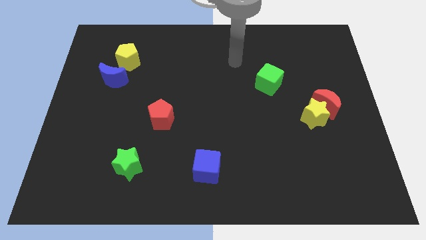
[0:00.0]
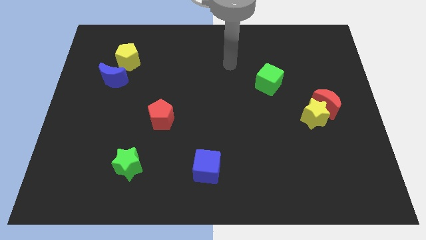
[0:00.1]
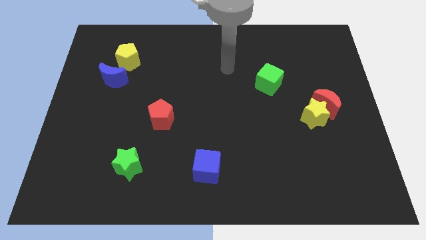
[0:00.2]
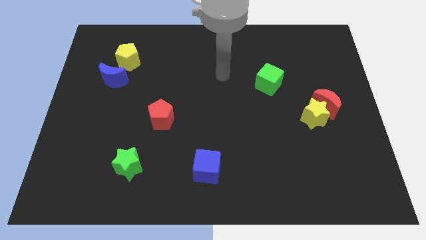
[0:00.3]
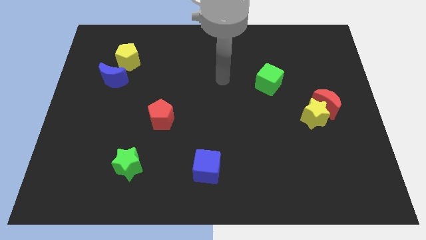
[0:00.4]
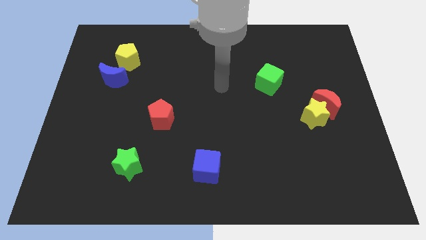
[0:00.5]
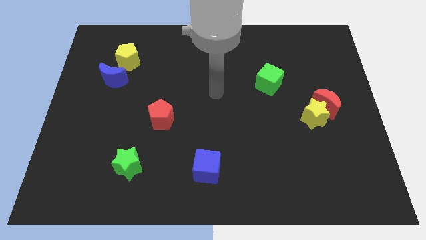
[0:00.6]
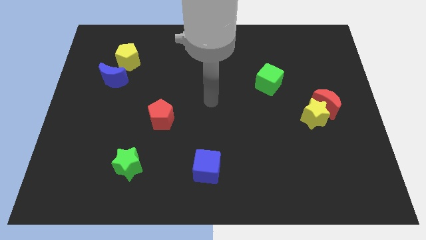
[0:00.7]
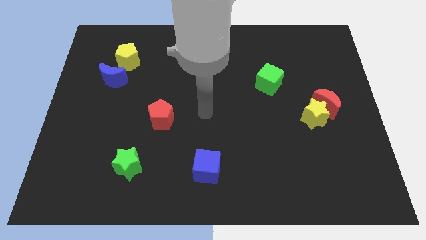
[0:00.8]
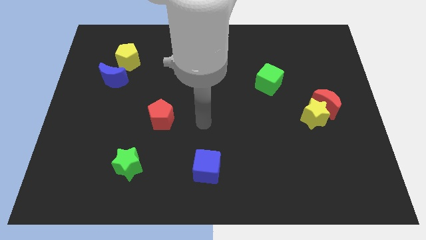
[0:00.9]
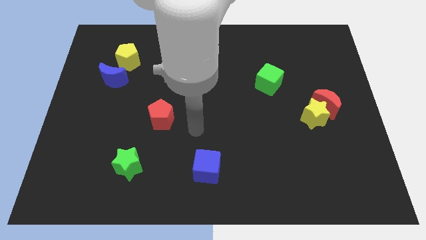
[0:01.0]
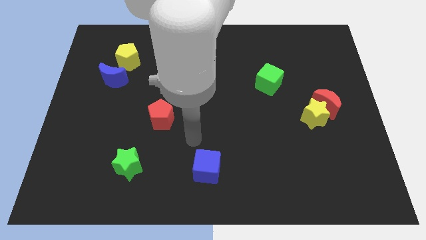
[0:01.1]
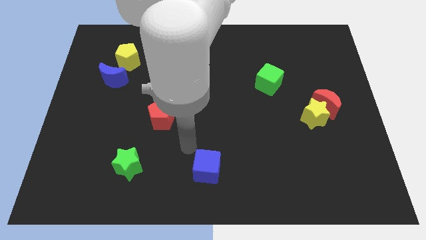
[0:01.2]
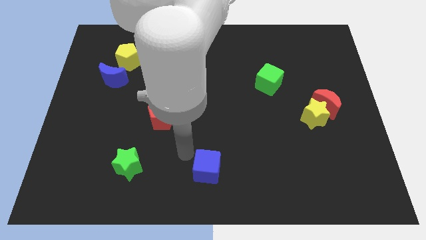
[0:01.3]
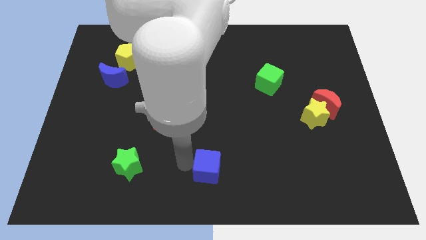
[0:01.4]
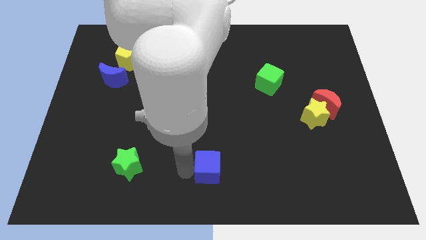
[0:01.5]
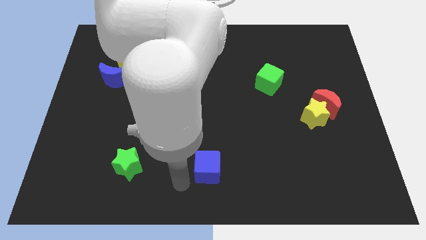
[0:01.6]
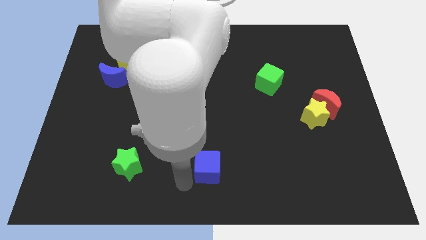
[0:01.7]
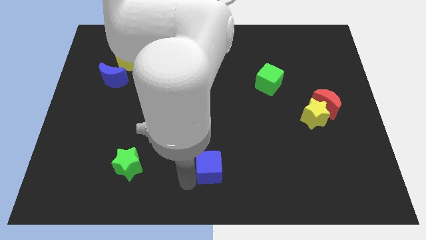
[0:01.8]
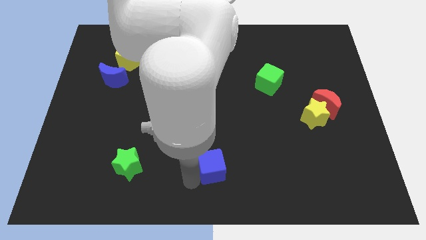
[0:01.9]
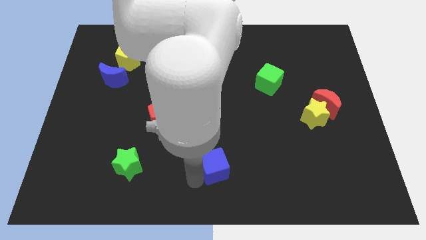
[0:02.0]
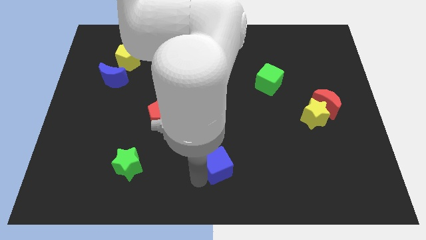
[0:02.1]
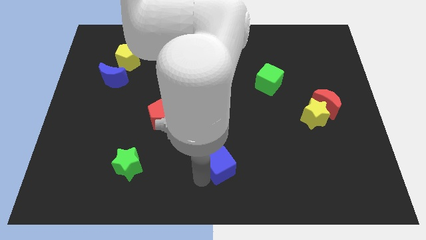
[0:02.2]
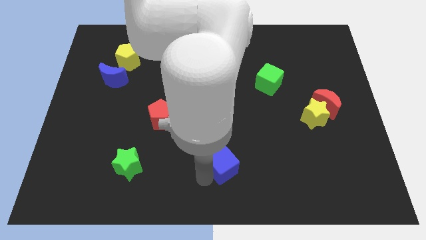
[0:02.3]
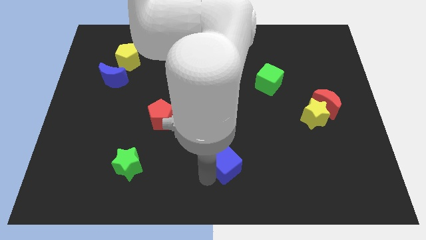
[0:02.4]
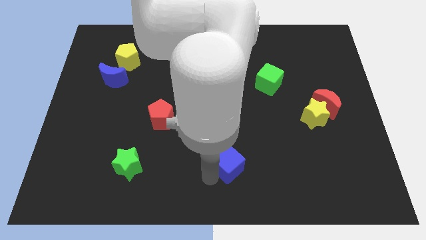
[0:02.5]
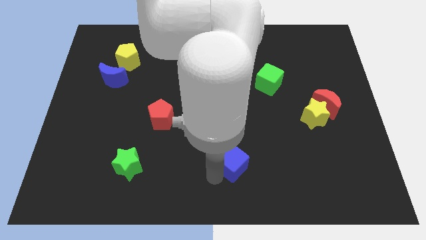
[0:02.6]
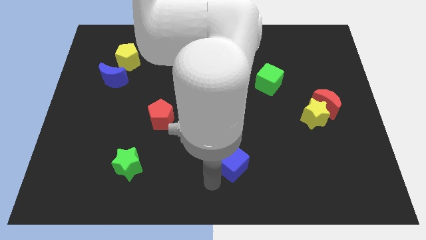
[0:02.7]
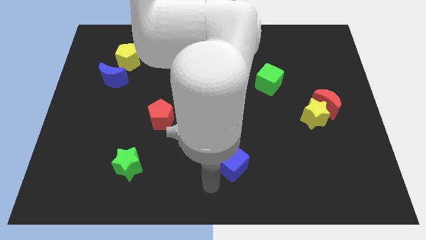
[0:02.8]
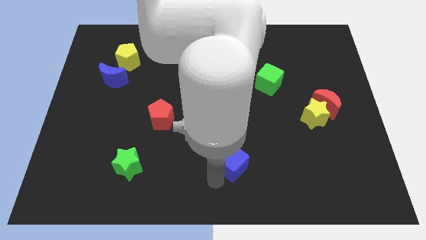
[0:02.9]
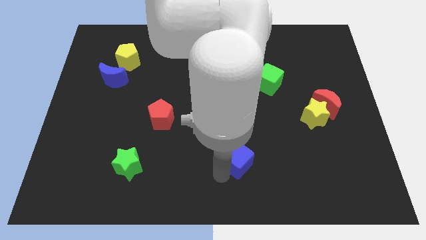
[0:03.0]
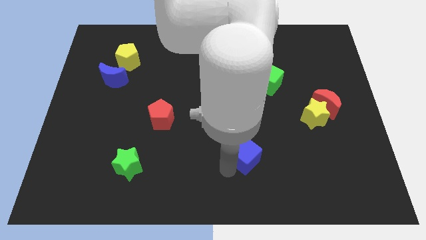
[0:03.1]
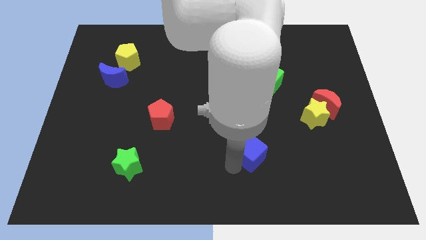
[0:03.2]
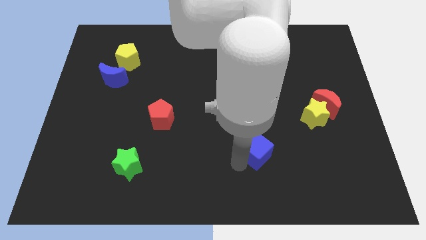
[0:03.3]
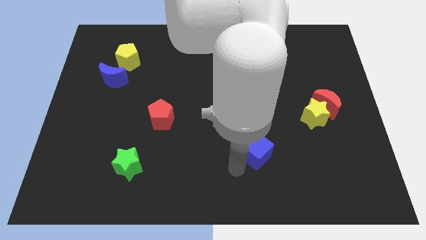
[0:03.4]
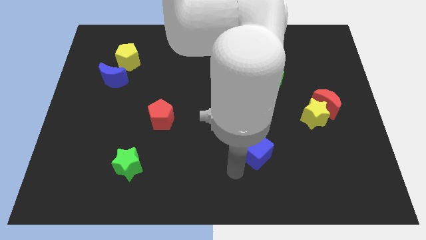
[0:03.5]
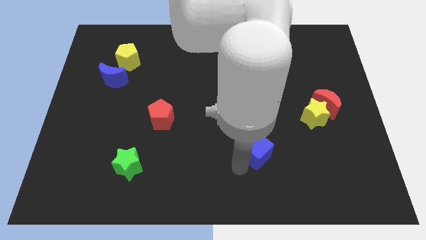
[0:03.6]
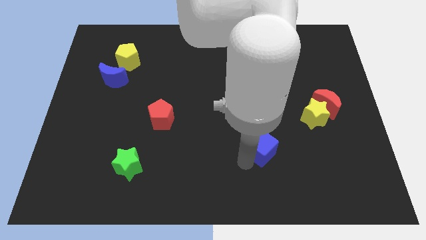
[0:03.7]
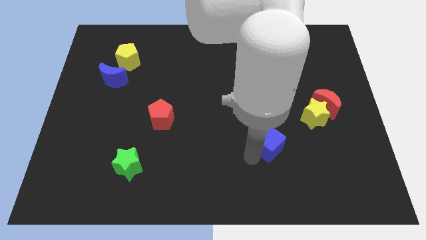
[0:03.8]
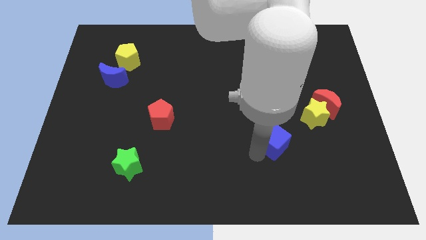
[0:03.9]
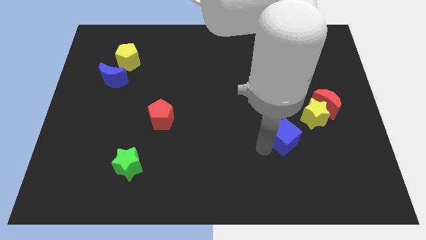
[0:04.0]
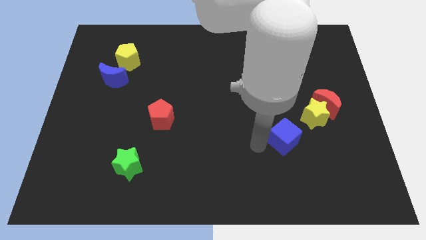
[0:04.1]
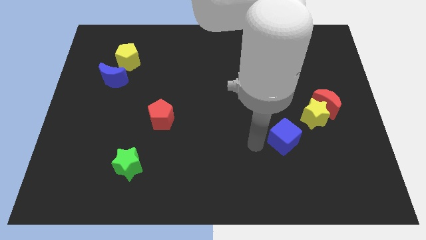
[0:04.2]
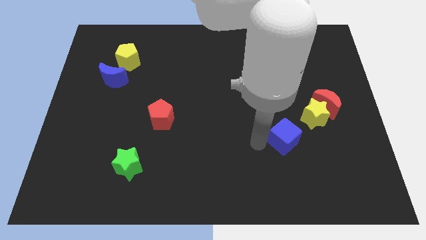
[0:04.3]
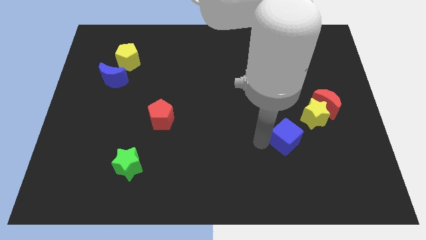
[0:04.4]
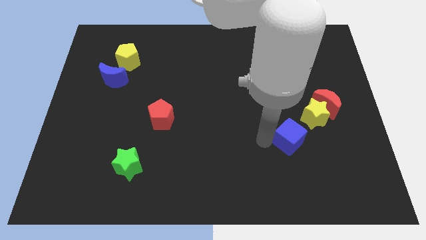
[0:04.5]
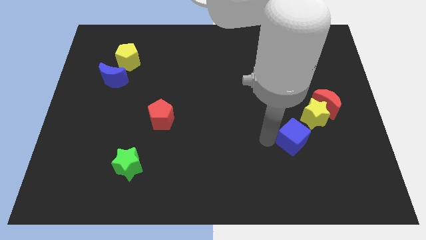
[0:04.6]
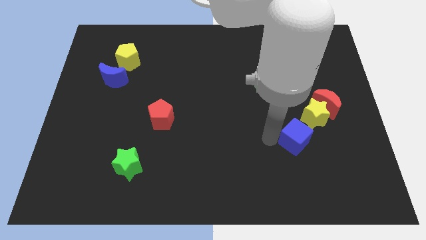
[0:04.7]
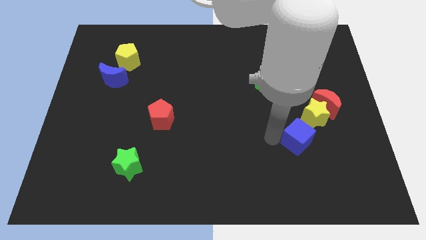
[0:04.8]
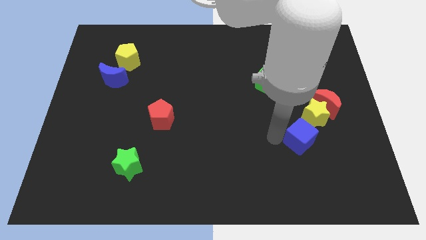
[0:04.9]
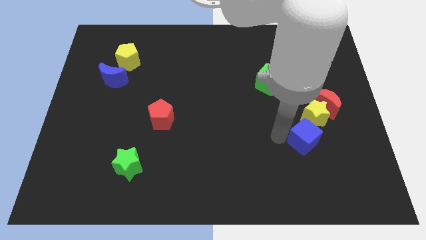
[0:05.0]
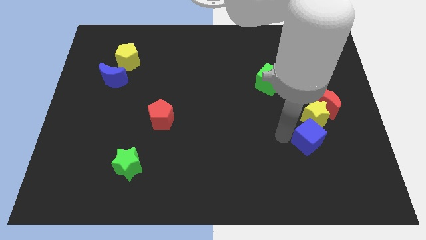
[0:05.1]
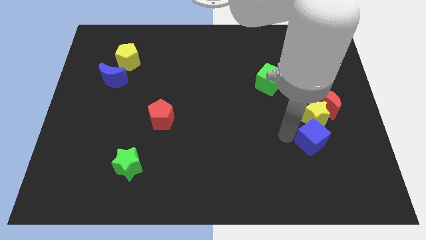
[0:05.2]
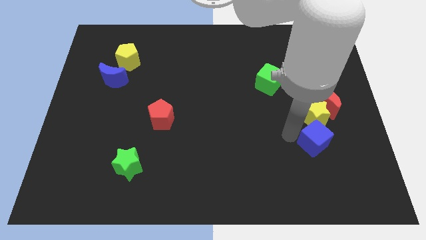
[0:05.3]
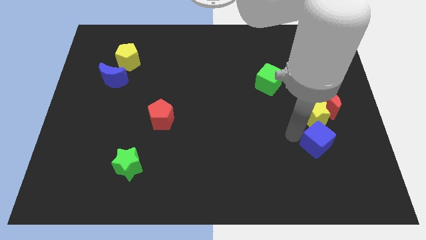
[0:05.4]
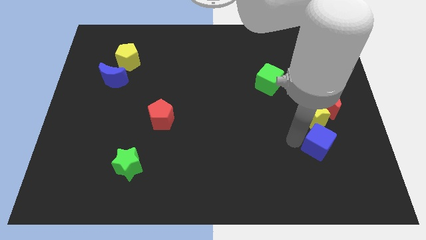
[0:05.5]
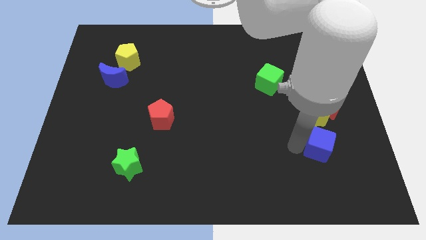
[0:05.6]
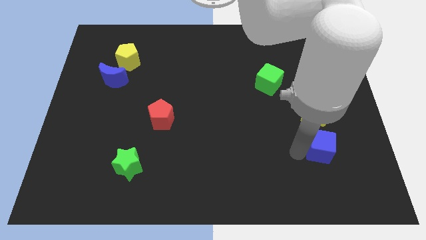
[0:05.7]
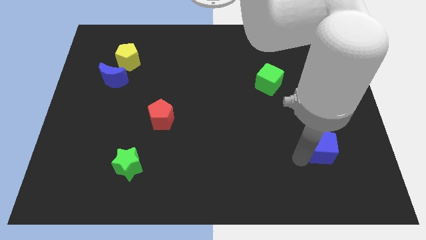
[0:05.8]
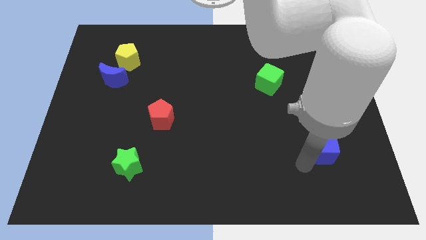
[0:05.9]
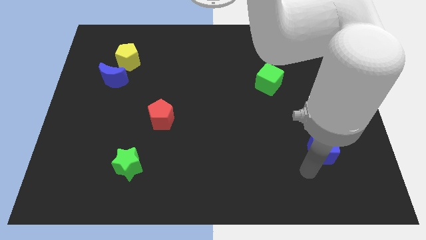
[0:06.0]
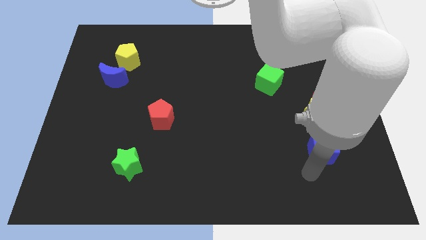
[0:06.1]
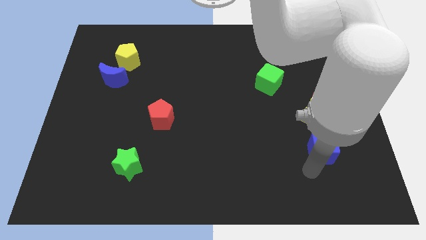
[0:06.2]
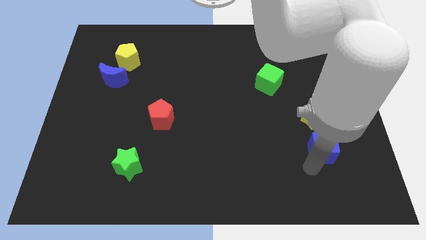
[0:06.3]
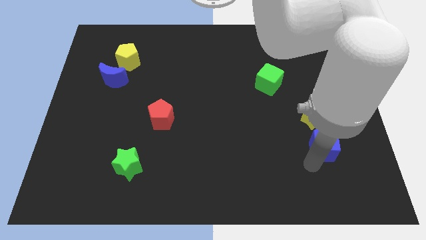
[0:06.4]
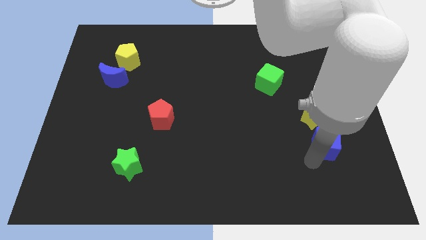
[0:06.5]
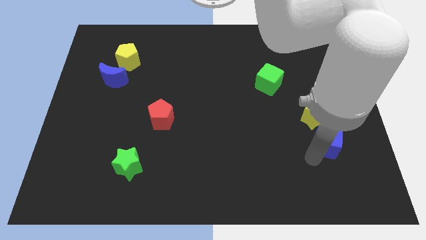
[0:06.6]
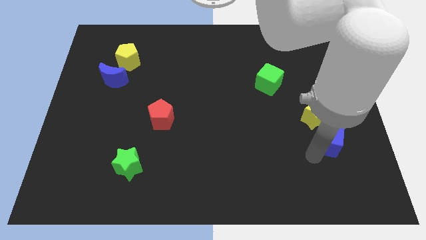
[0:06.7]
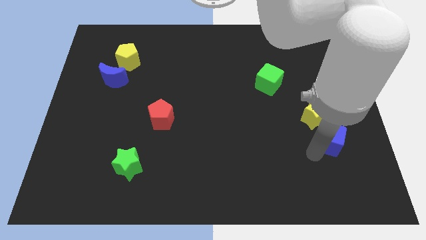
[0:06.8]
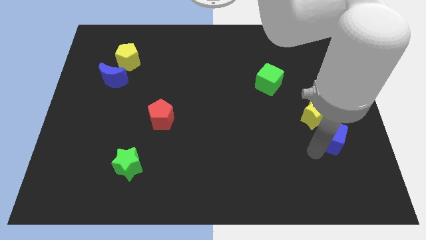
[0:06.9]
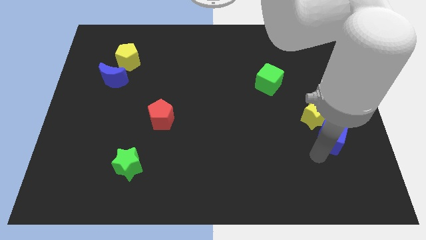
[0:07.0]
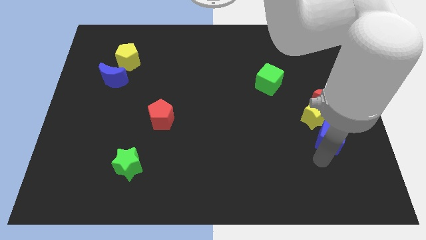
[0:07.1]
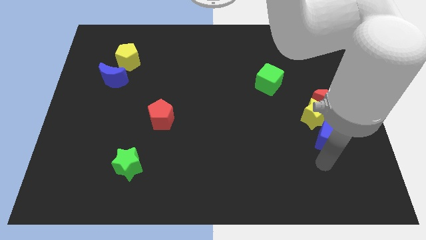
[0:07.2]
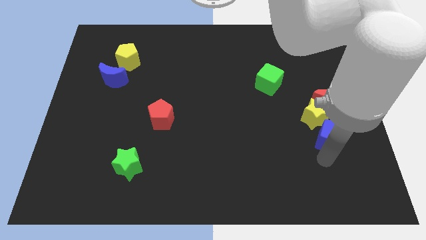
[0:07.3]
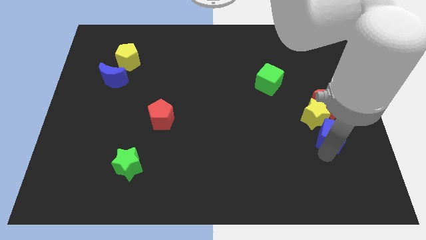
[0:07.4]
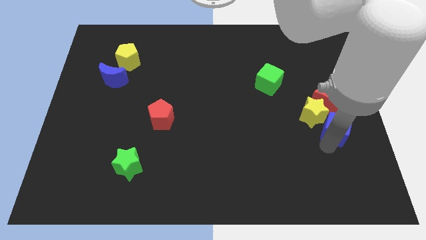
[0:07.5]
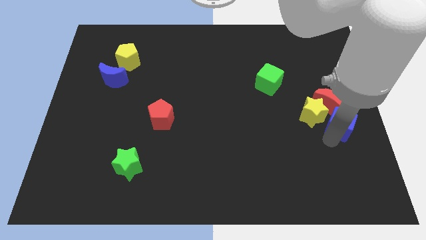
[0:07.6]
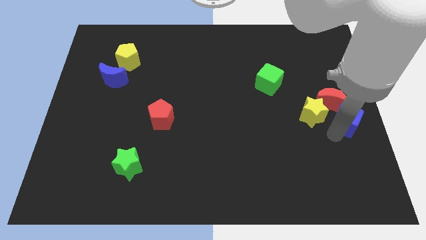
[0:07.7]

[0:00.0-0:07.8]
move the blue cube to the red moon

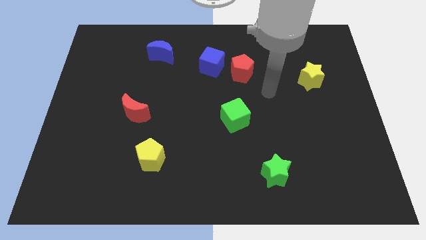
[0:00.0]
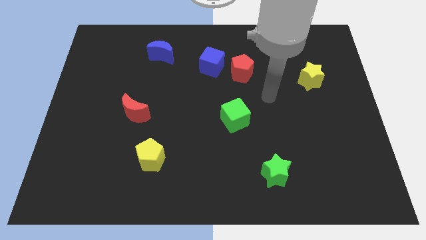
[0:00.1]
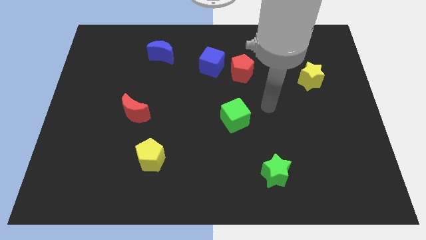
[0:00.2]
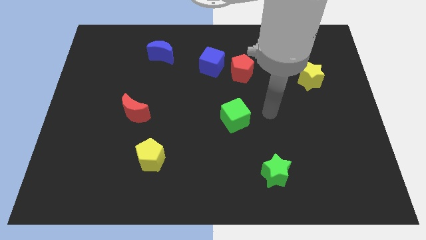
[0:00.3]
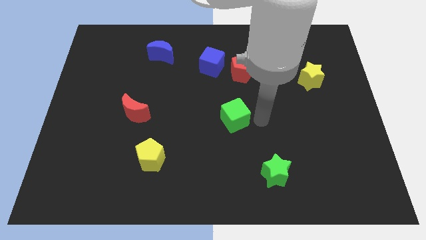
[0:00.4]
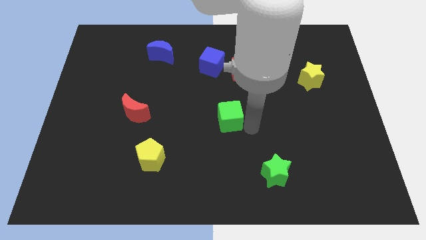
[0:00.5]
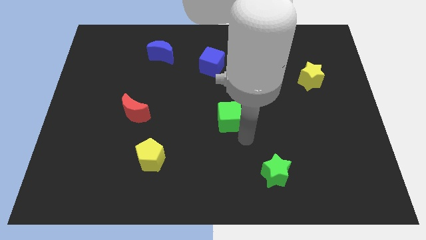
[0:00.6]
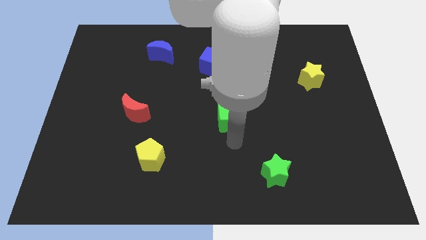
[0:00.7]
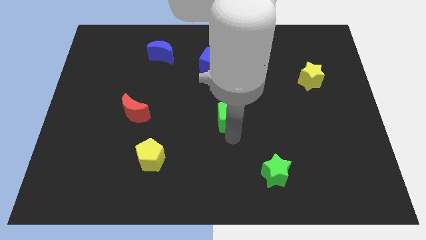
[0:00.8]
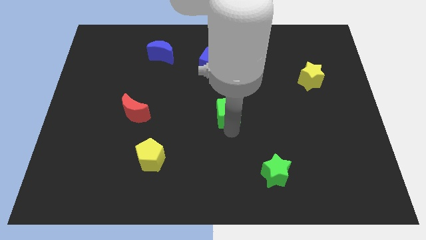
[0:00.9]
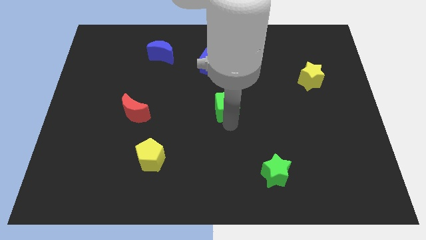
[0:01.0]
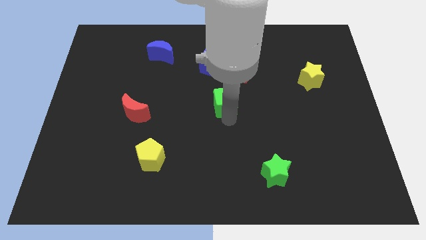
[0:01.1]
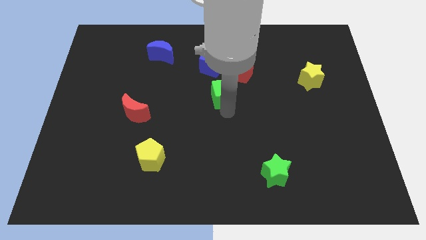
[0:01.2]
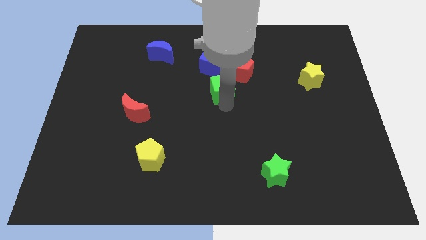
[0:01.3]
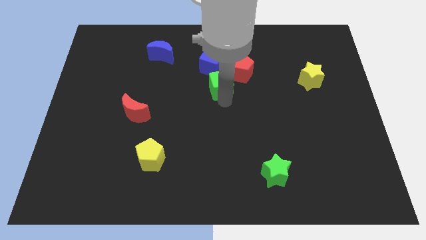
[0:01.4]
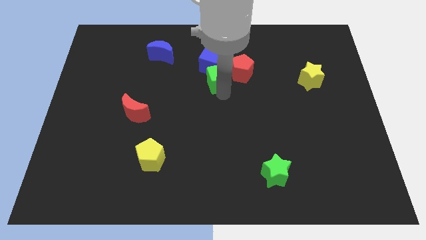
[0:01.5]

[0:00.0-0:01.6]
push the green cube close to the blue cube
